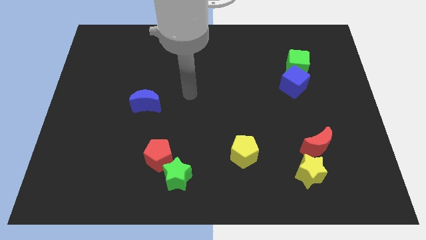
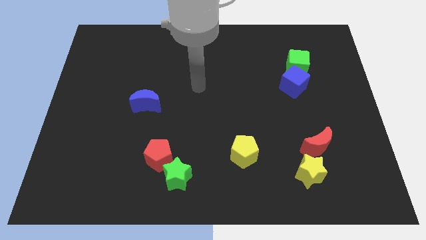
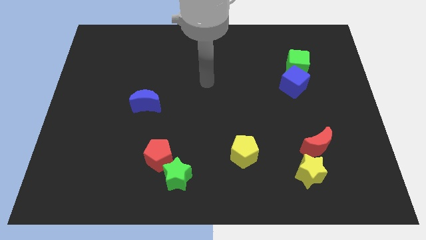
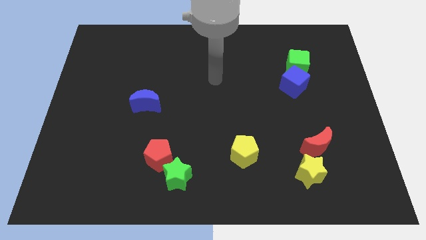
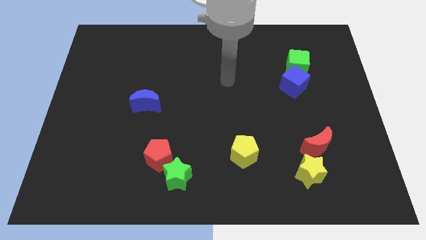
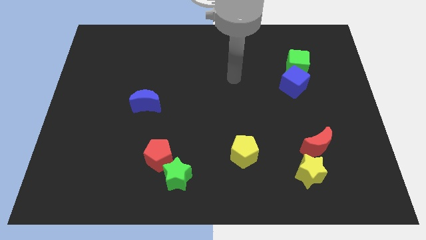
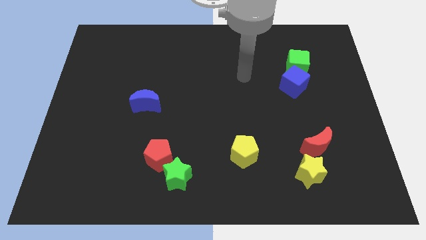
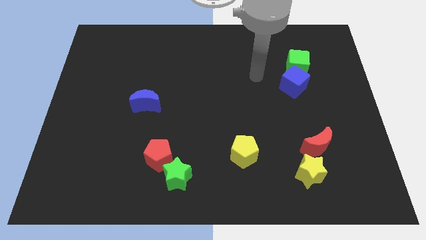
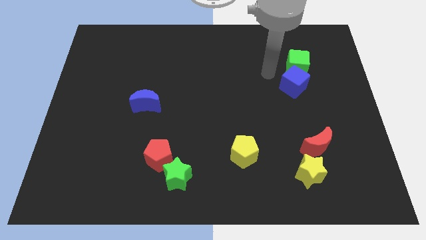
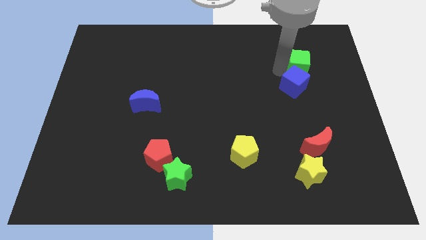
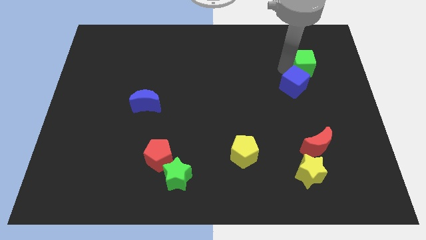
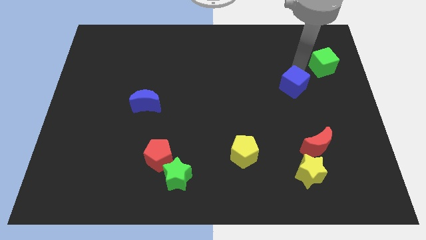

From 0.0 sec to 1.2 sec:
separate the blue cube from the green cube

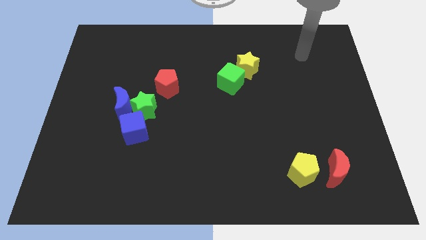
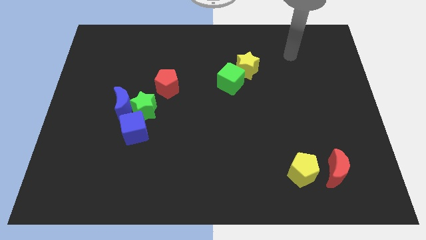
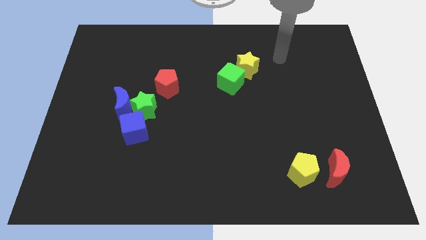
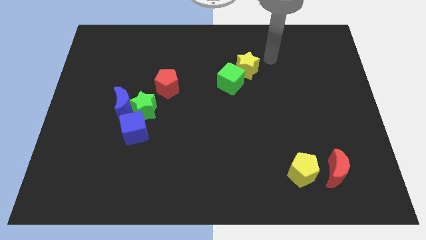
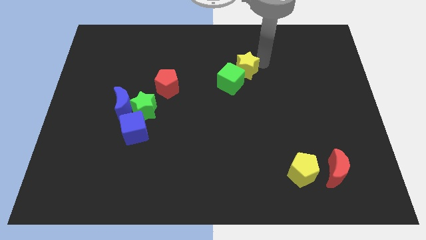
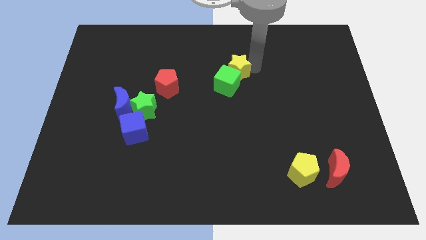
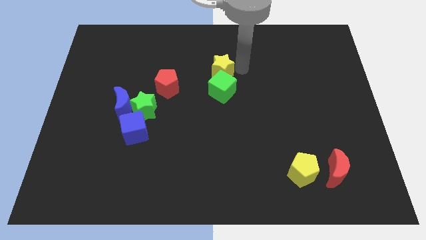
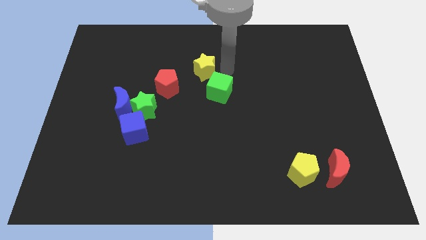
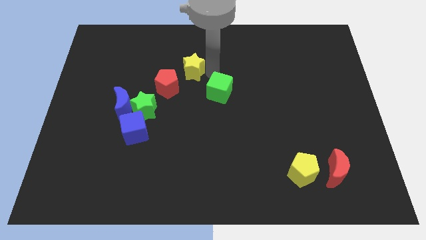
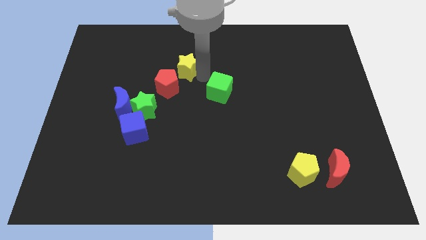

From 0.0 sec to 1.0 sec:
move the green cube away from the yellow star

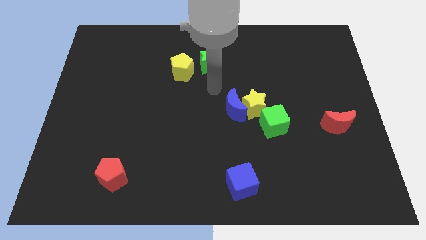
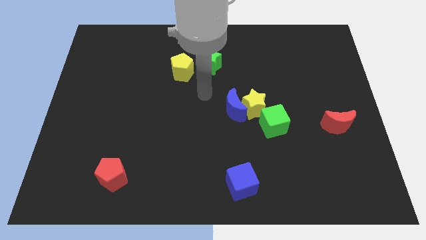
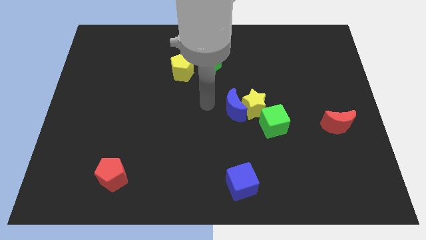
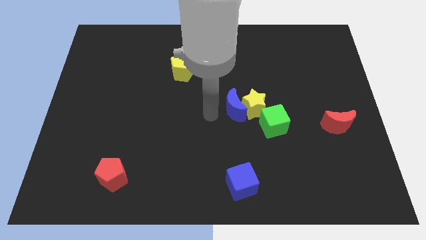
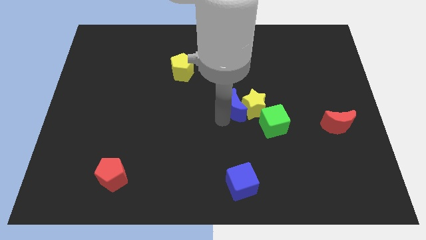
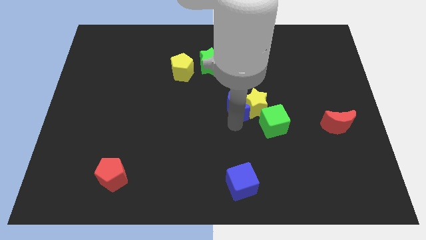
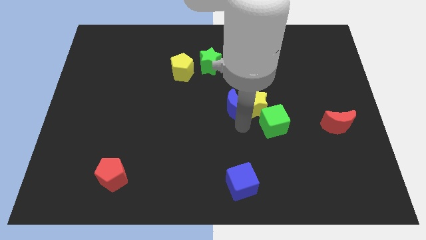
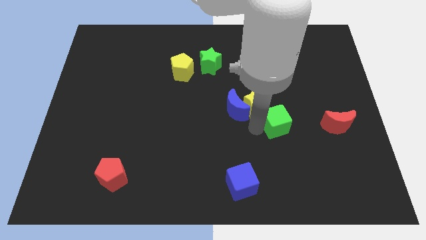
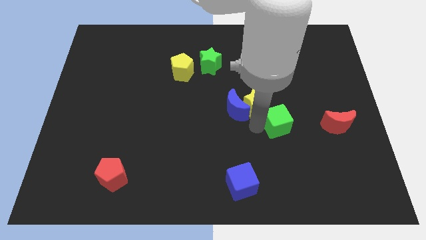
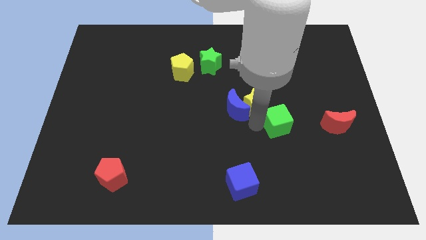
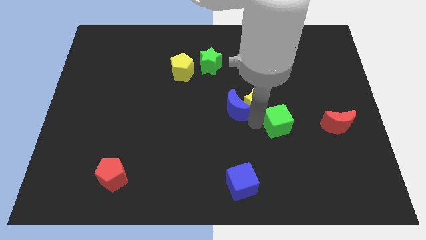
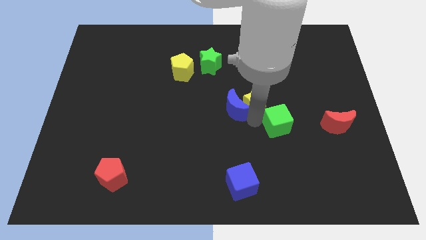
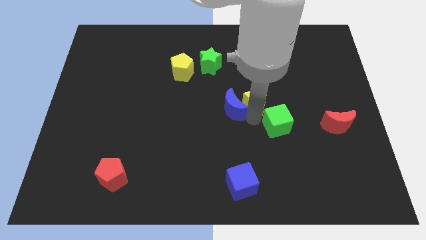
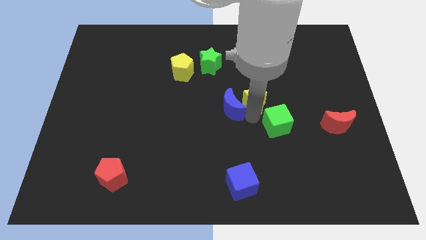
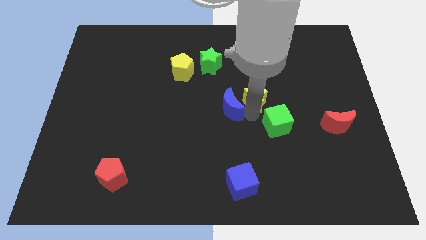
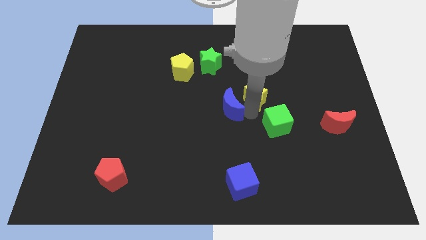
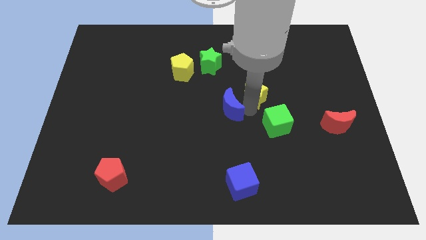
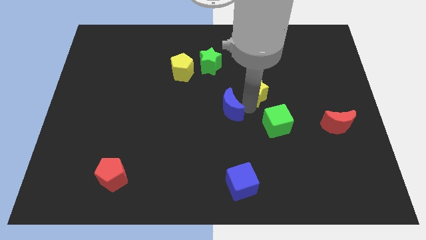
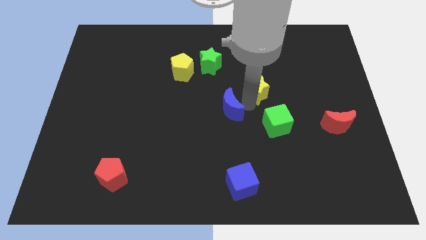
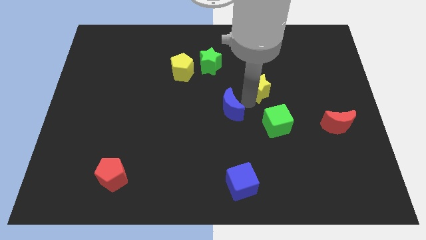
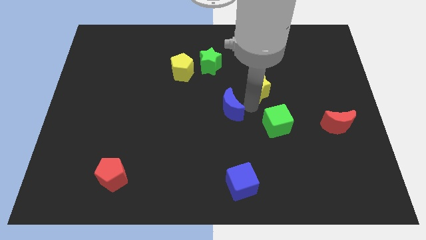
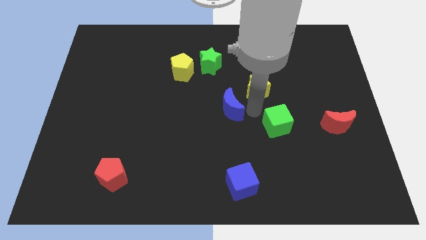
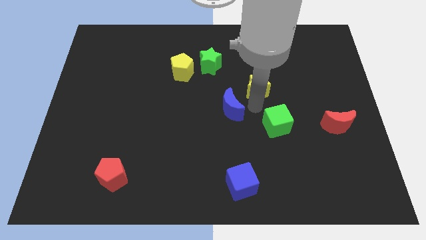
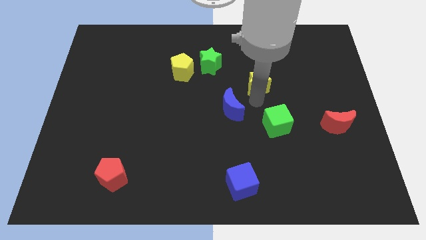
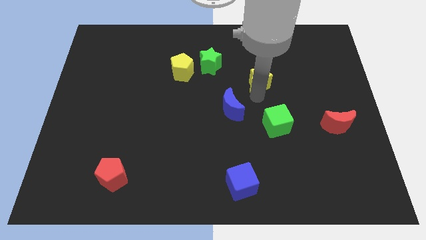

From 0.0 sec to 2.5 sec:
separate the yellow star from the blue moon and green cube

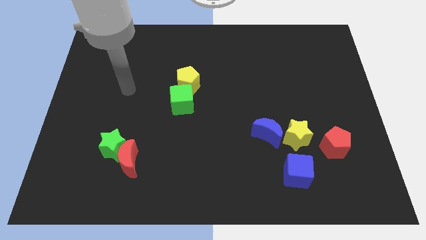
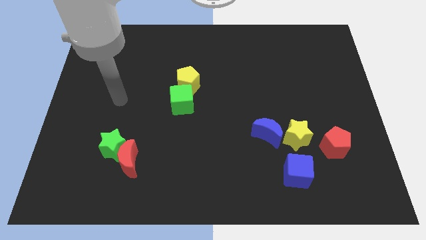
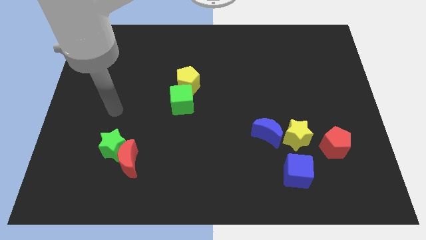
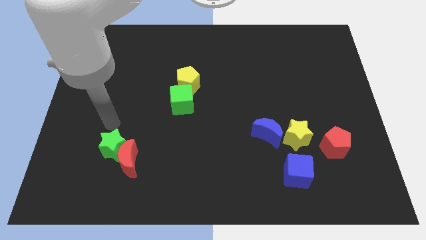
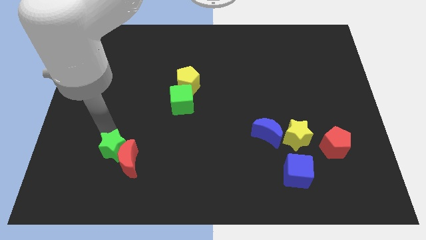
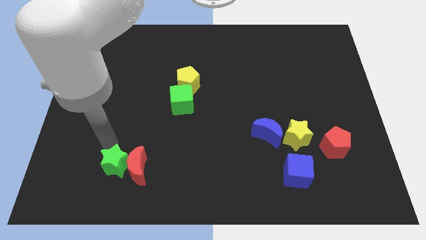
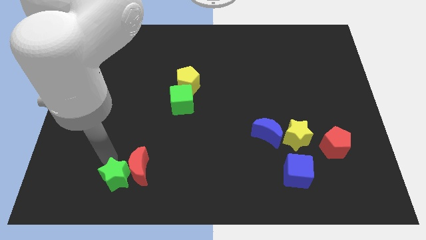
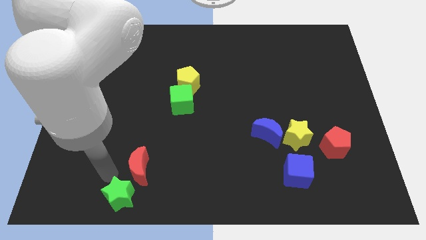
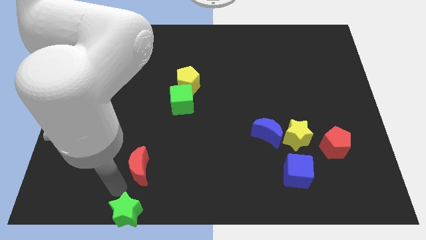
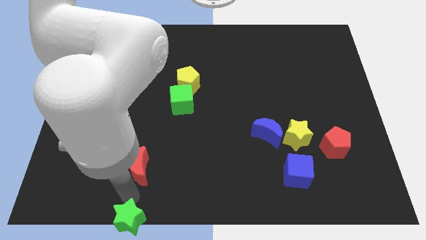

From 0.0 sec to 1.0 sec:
pull the red moon apart from the green star

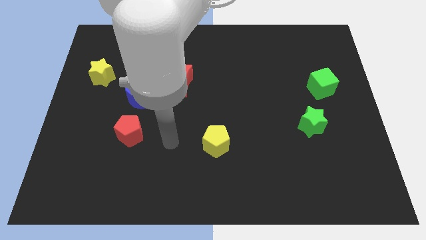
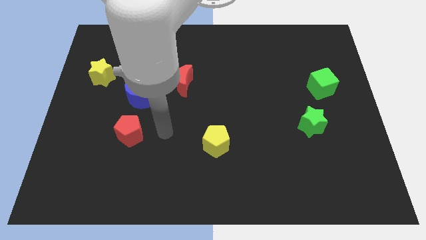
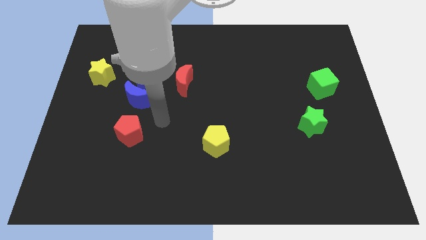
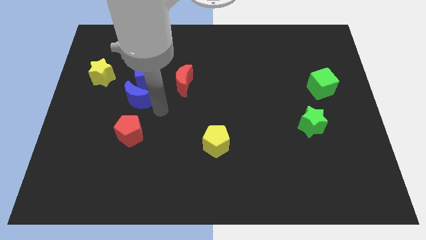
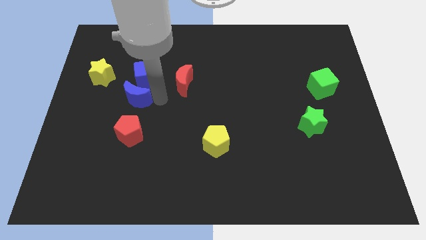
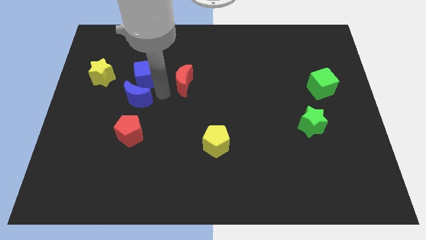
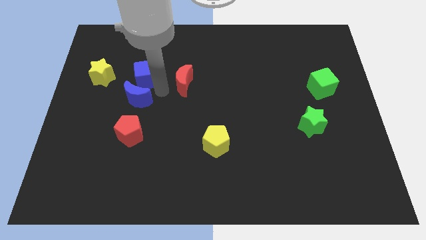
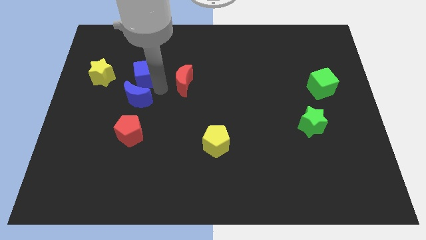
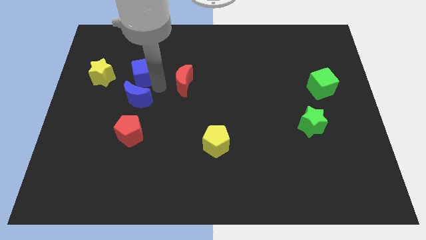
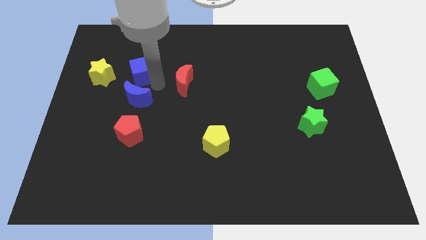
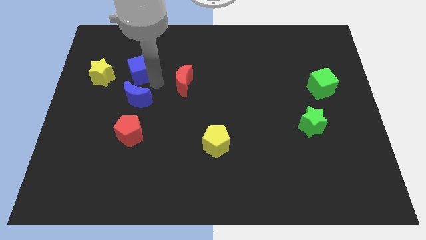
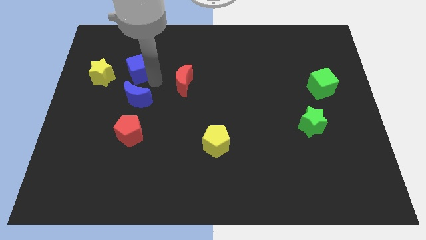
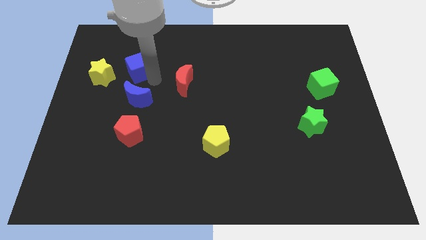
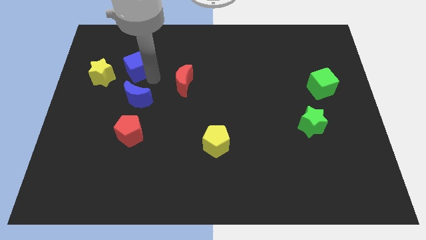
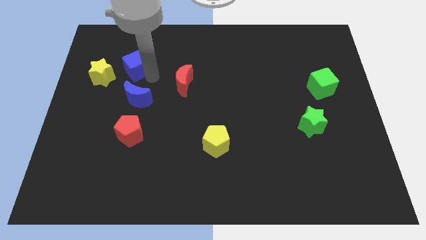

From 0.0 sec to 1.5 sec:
separate the blue cube from the blue moon and red moon

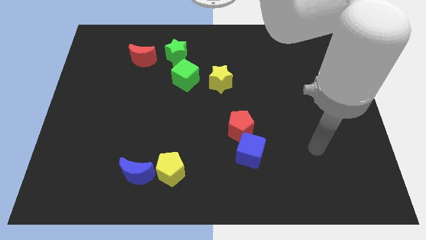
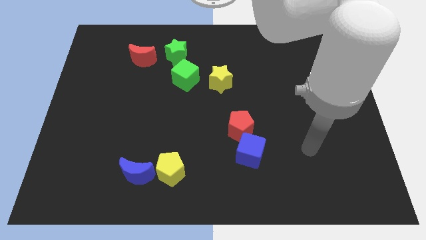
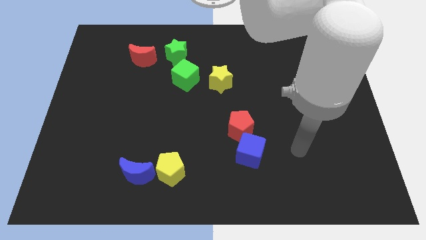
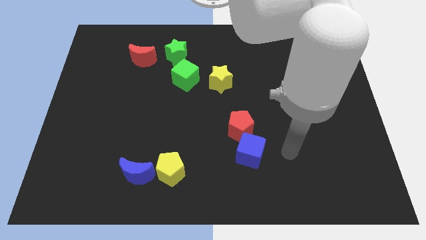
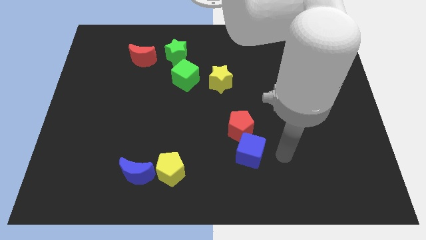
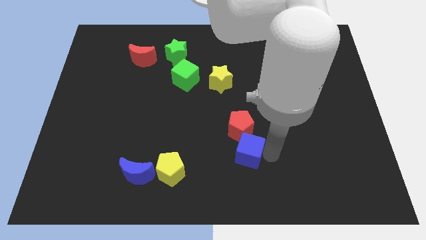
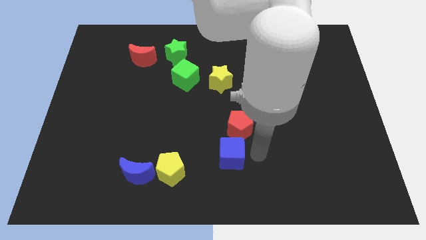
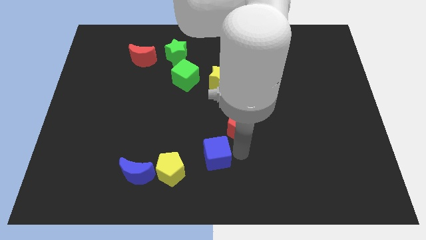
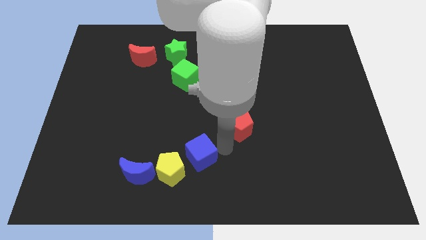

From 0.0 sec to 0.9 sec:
separate the red pentagon from the blue cube

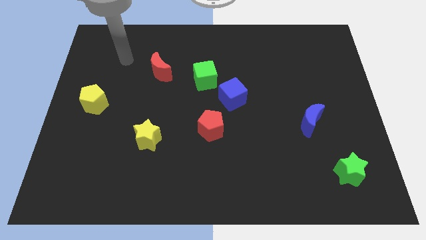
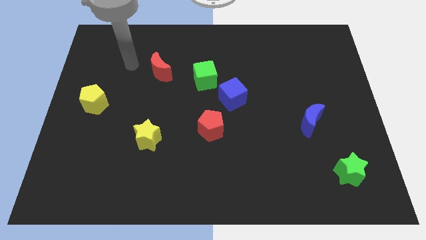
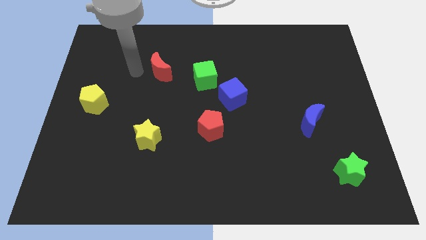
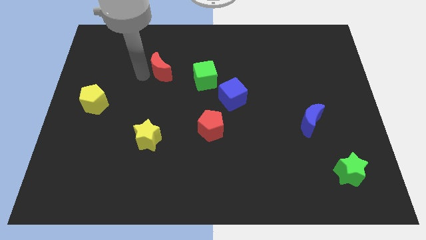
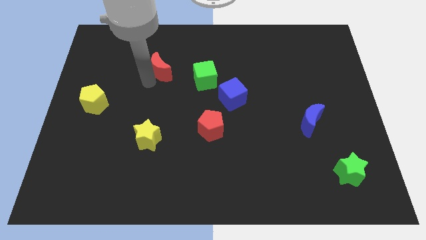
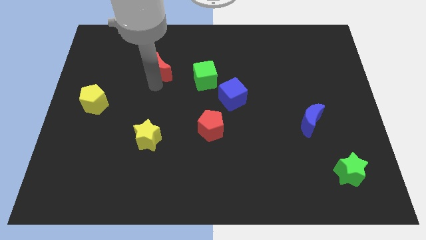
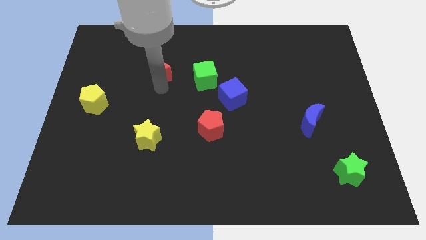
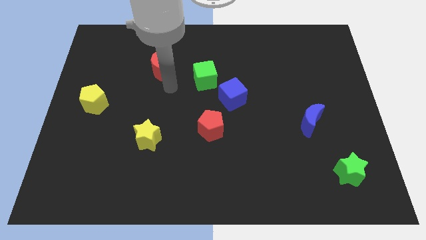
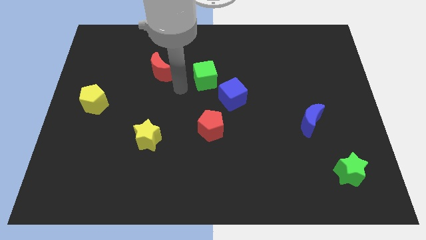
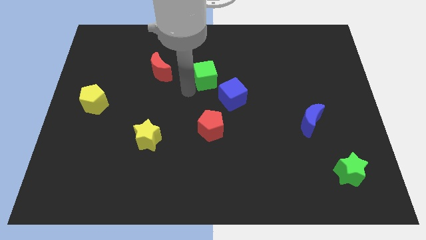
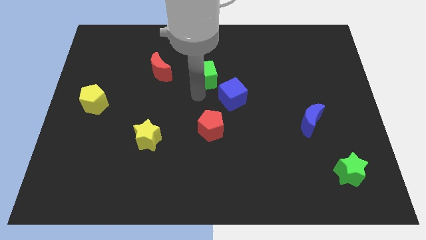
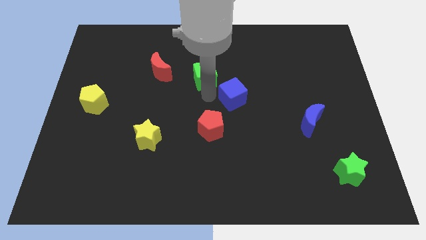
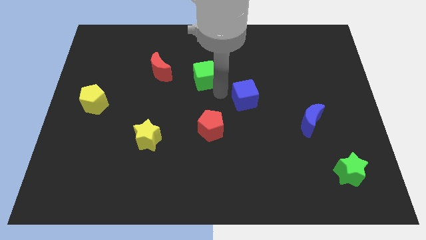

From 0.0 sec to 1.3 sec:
pull the green cube apart from the blue cube
